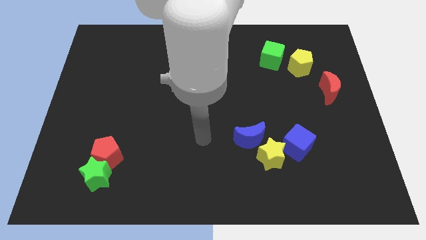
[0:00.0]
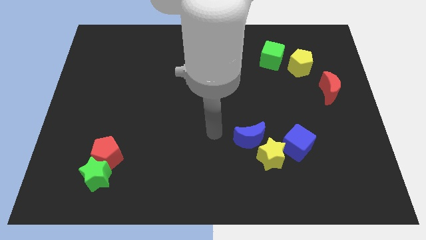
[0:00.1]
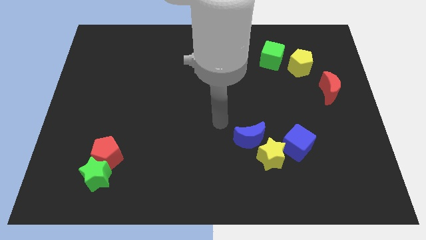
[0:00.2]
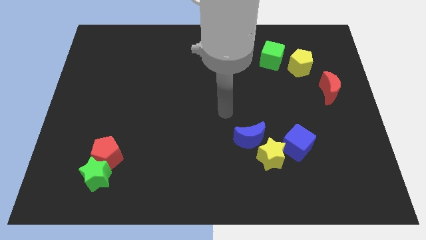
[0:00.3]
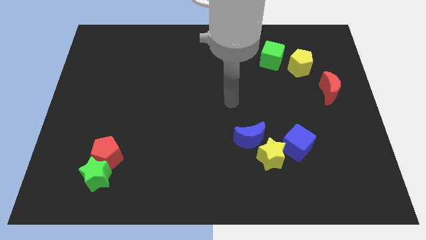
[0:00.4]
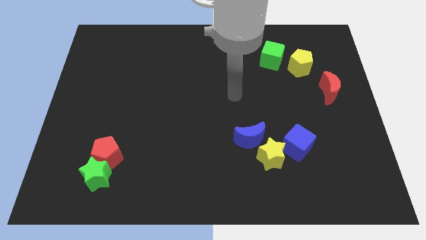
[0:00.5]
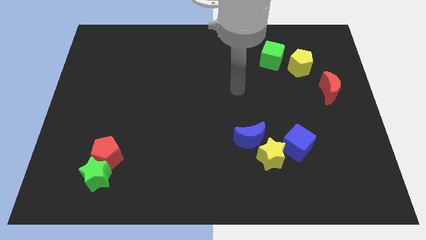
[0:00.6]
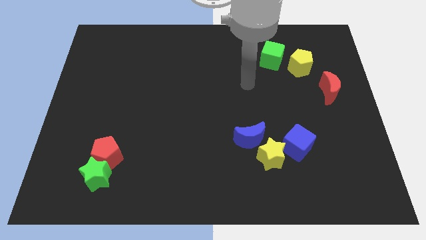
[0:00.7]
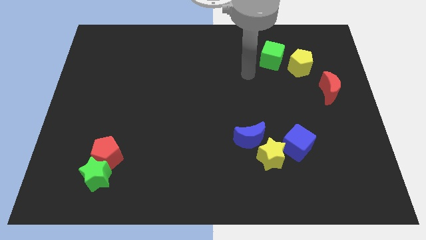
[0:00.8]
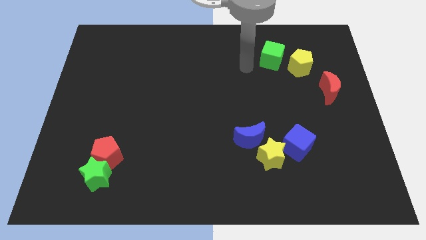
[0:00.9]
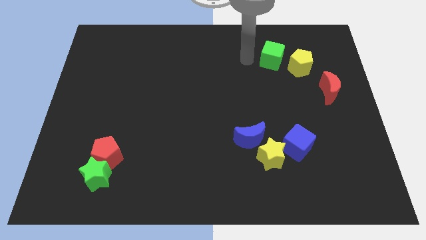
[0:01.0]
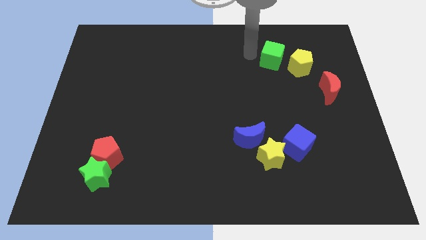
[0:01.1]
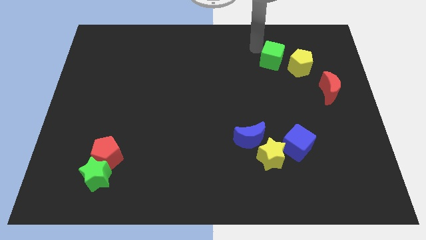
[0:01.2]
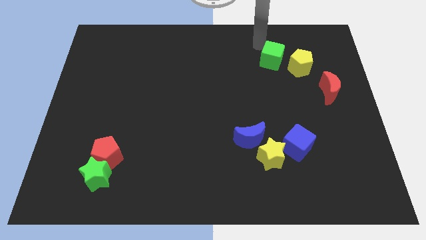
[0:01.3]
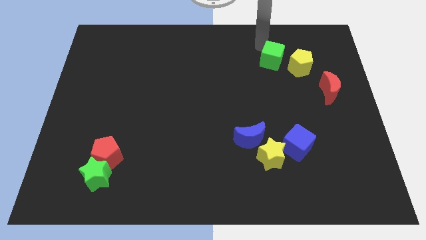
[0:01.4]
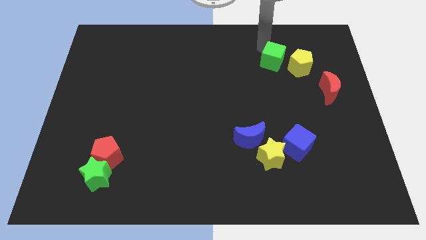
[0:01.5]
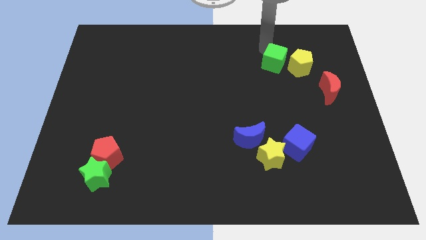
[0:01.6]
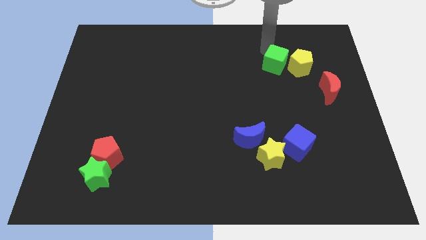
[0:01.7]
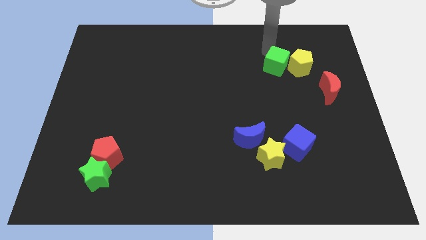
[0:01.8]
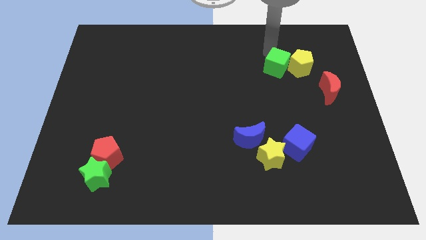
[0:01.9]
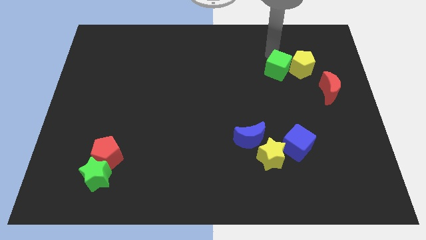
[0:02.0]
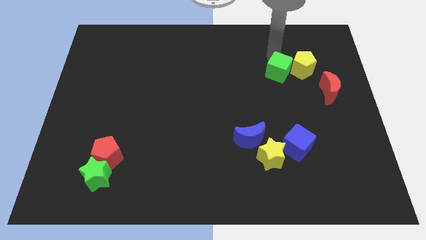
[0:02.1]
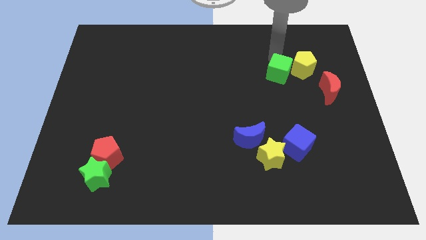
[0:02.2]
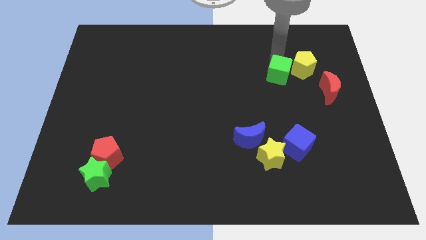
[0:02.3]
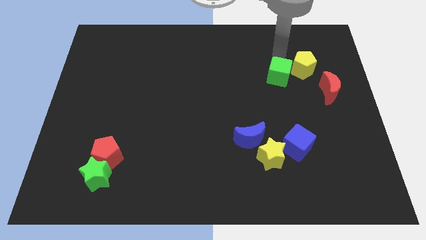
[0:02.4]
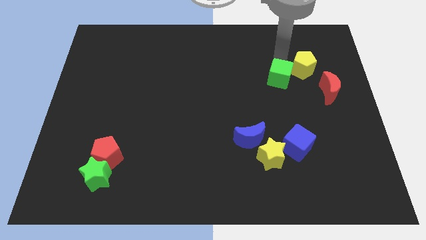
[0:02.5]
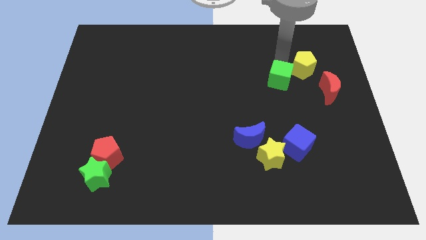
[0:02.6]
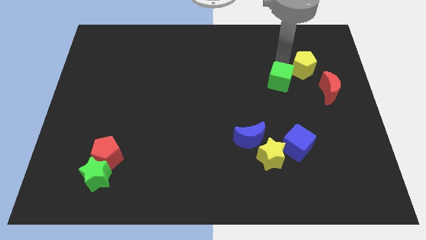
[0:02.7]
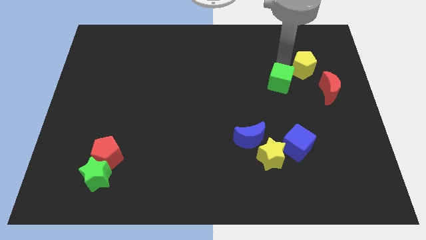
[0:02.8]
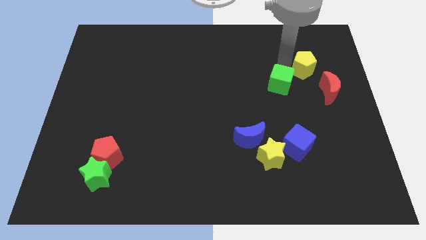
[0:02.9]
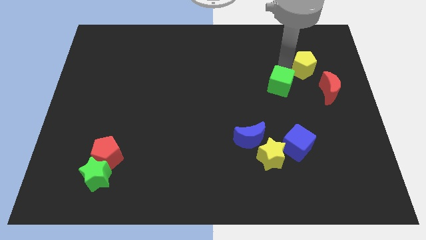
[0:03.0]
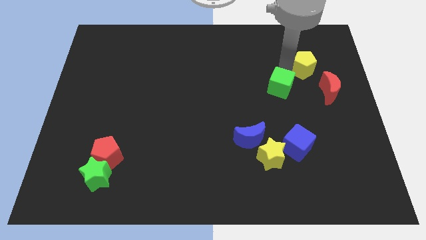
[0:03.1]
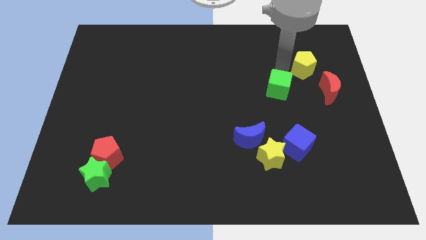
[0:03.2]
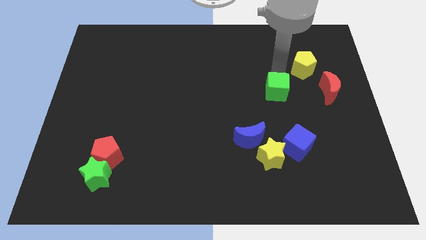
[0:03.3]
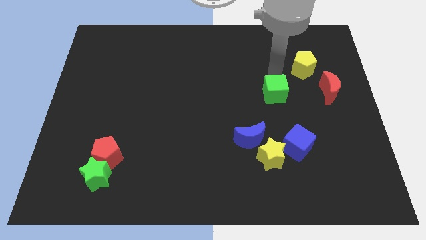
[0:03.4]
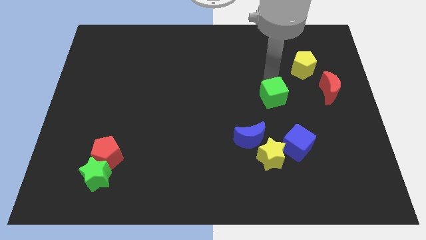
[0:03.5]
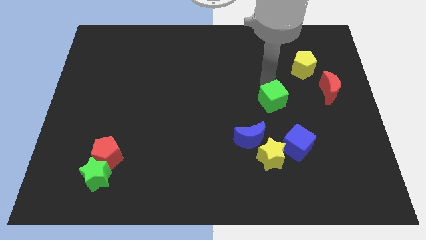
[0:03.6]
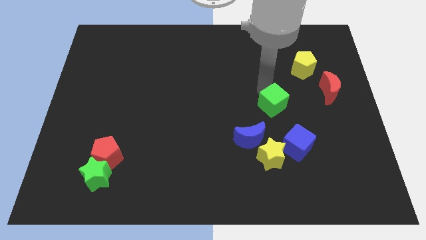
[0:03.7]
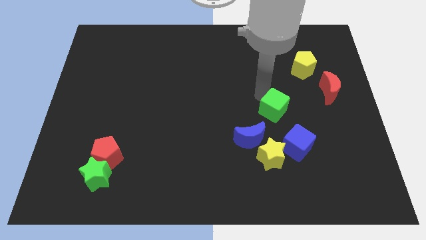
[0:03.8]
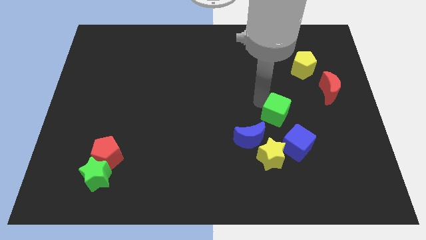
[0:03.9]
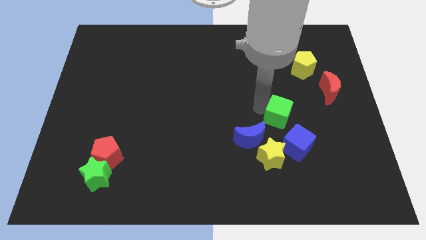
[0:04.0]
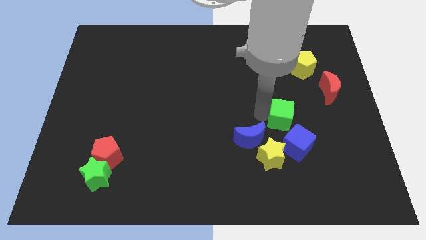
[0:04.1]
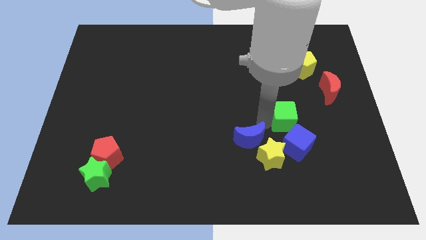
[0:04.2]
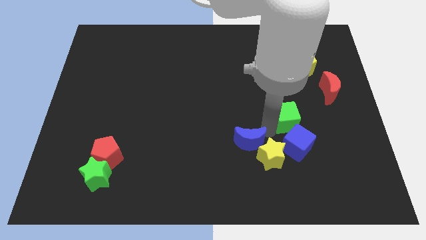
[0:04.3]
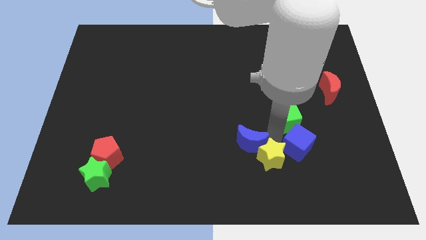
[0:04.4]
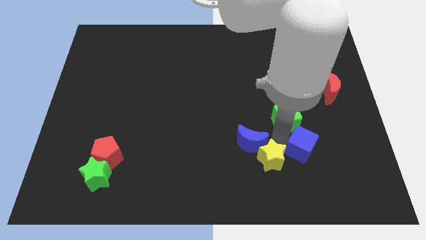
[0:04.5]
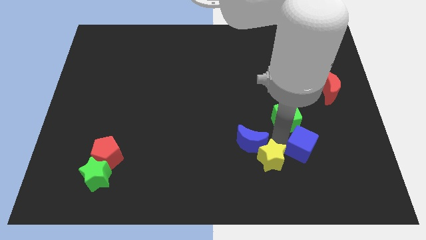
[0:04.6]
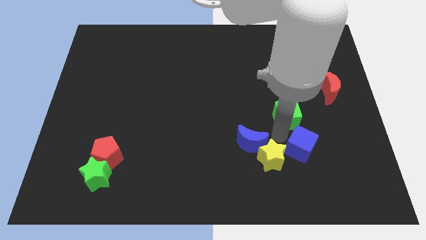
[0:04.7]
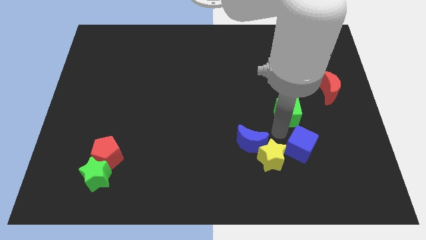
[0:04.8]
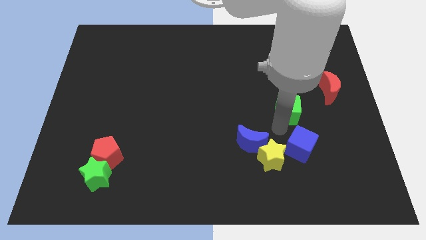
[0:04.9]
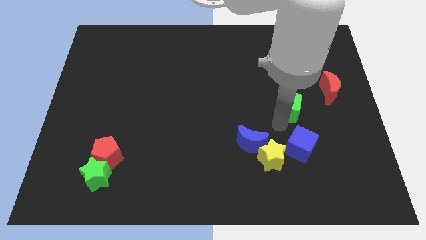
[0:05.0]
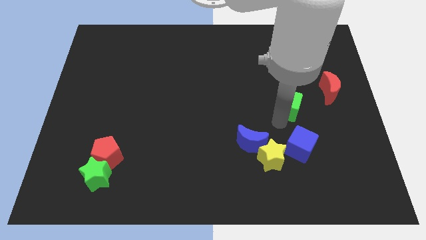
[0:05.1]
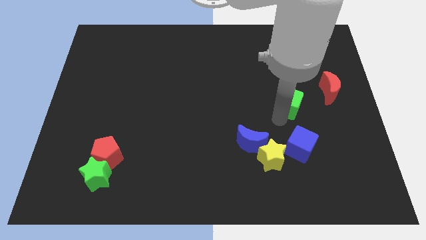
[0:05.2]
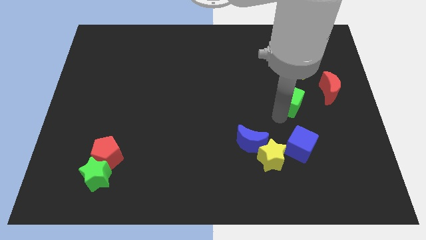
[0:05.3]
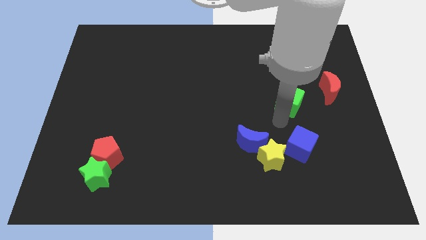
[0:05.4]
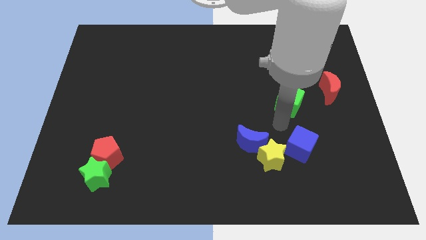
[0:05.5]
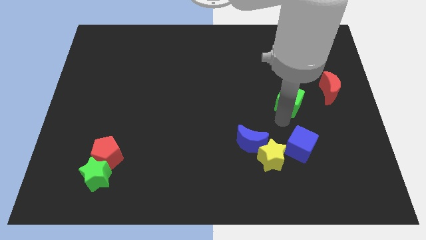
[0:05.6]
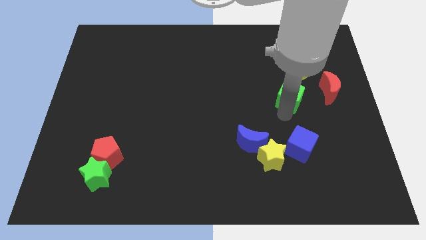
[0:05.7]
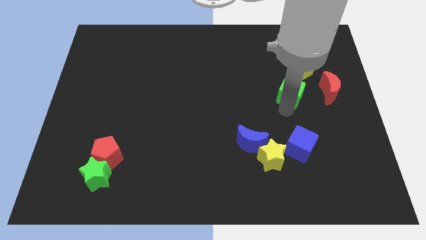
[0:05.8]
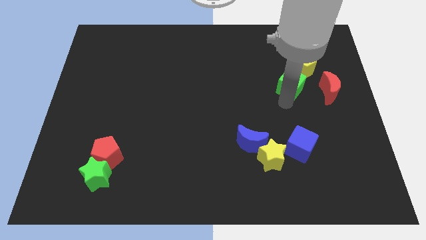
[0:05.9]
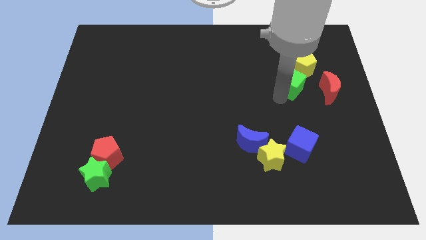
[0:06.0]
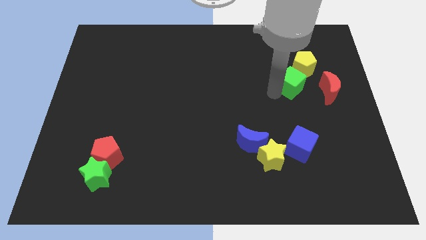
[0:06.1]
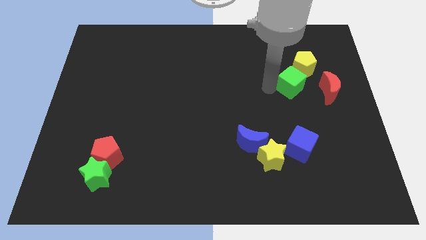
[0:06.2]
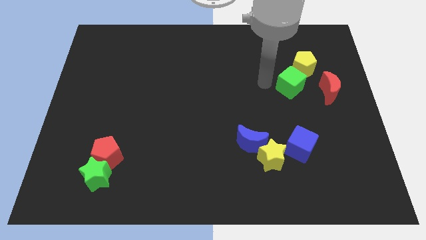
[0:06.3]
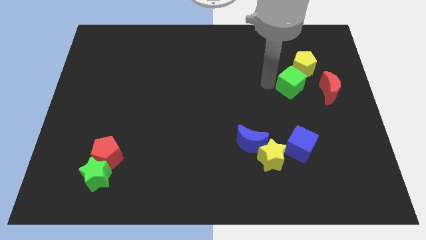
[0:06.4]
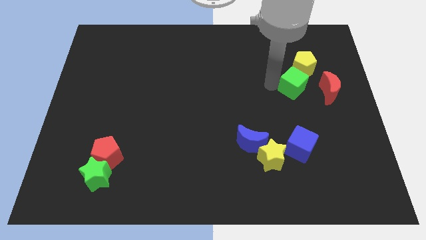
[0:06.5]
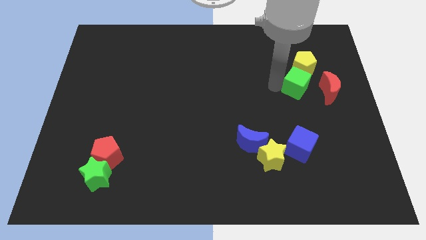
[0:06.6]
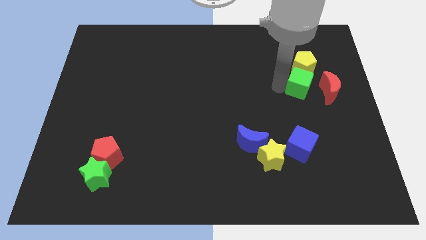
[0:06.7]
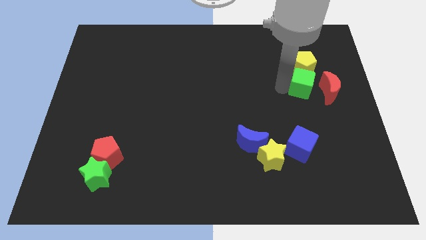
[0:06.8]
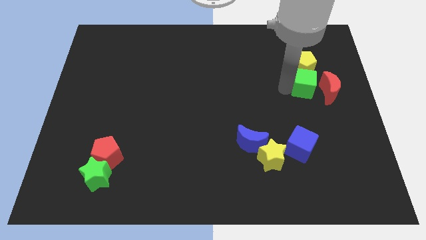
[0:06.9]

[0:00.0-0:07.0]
slide the green cube towards the red moon

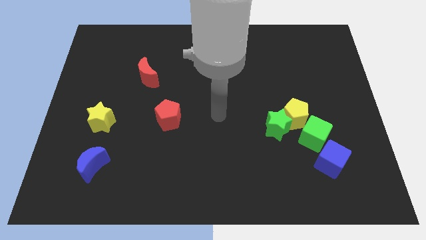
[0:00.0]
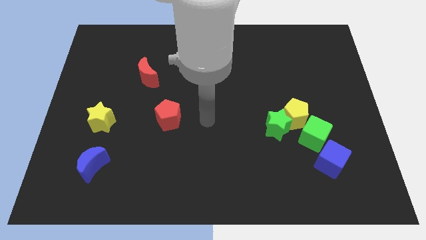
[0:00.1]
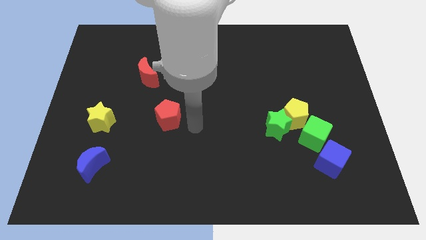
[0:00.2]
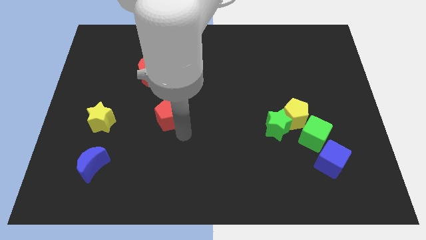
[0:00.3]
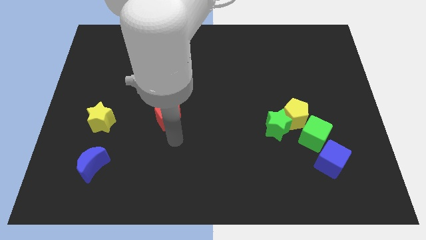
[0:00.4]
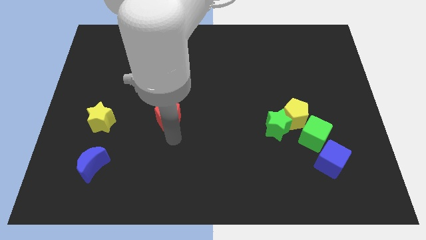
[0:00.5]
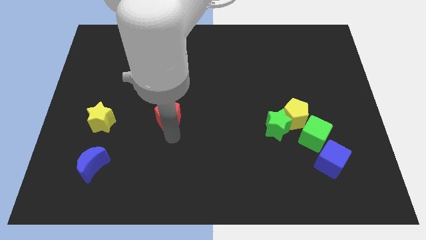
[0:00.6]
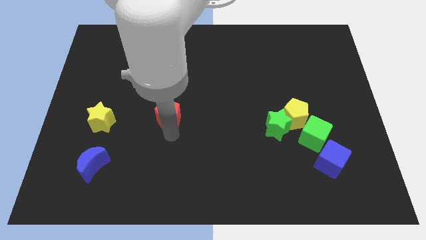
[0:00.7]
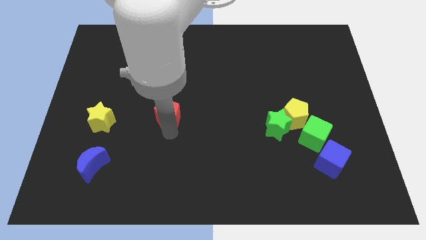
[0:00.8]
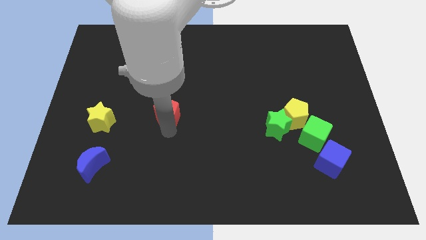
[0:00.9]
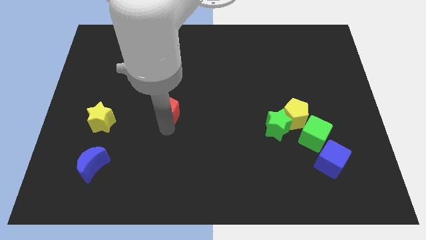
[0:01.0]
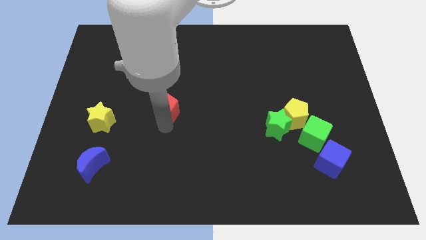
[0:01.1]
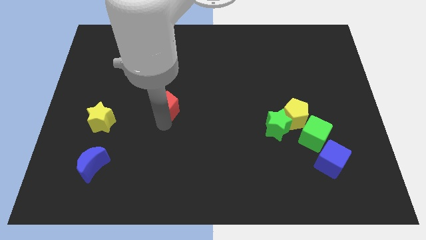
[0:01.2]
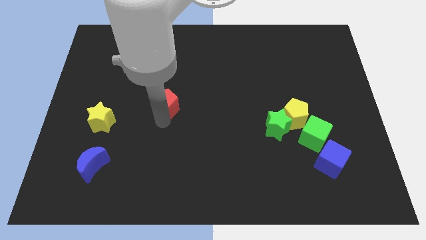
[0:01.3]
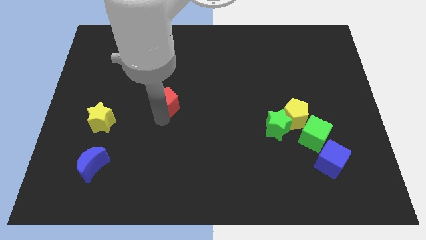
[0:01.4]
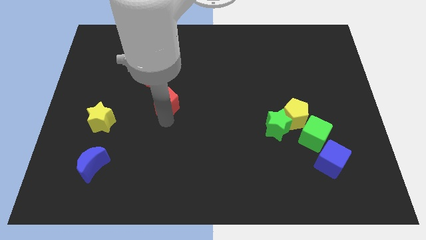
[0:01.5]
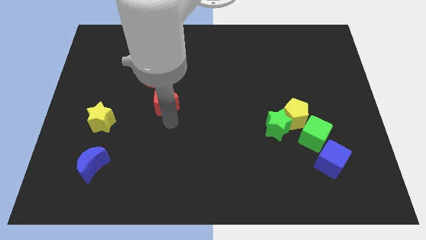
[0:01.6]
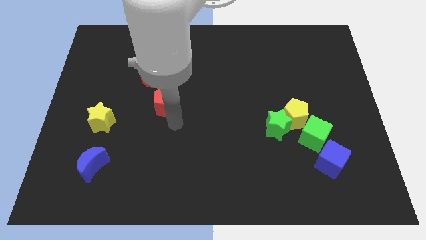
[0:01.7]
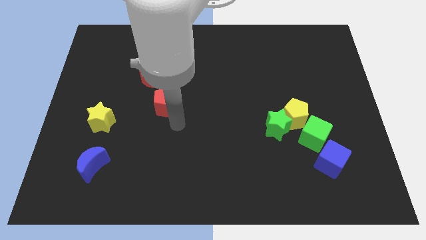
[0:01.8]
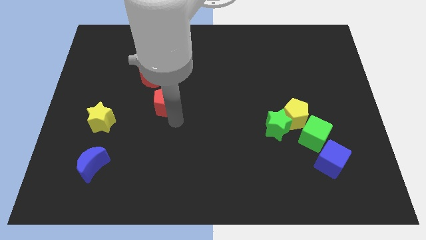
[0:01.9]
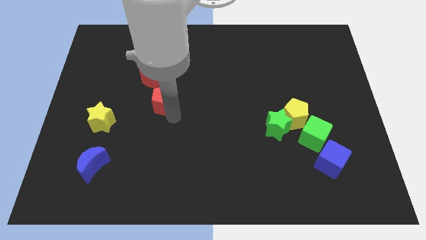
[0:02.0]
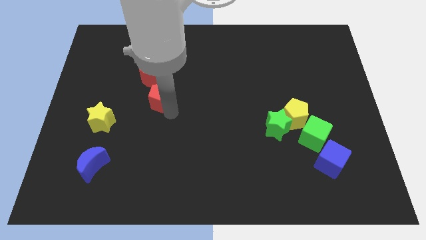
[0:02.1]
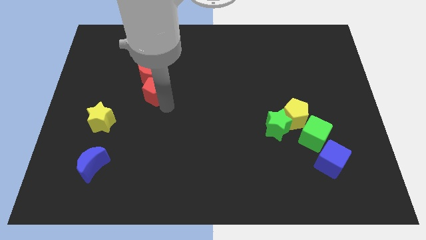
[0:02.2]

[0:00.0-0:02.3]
slide the red pentagon towards the red moon
